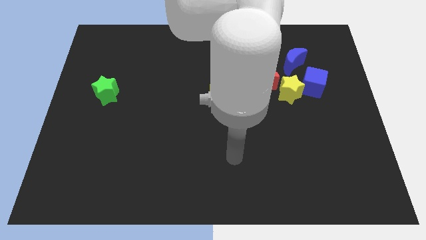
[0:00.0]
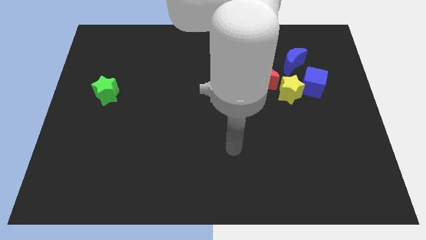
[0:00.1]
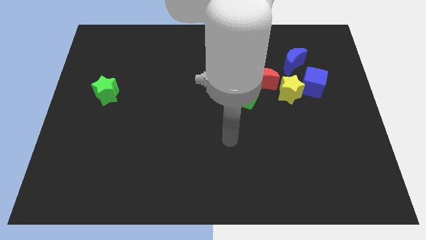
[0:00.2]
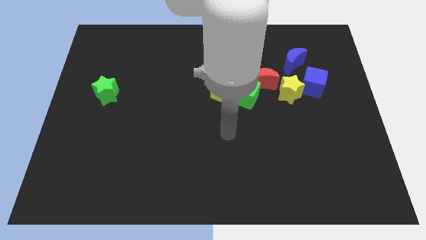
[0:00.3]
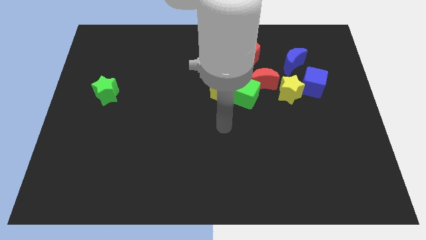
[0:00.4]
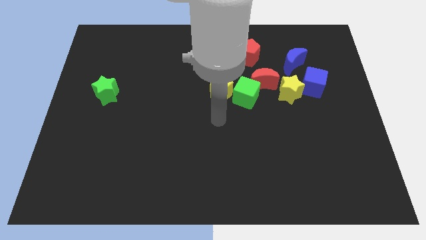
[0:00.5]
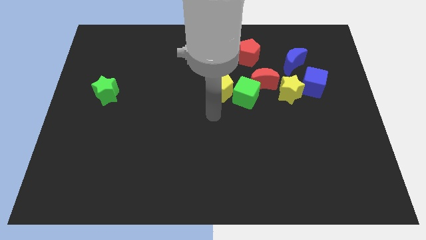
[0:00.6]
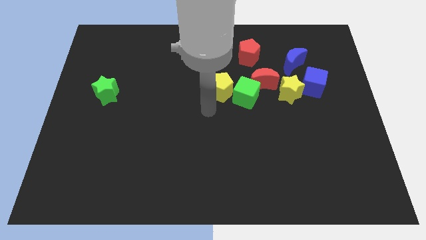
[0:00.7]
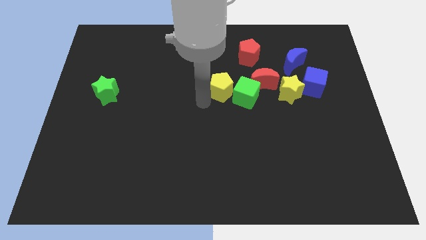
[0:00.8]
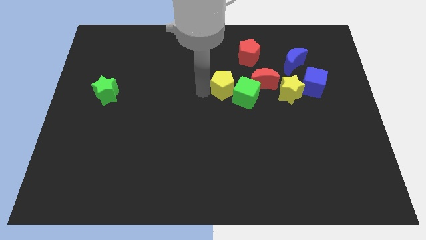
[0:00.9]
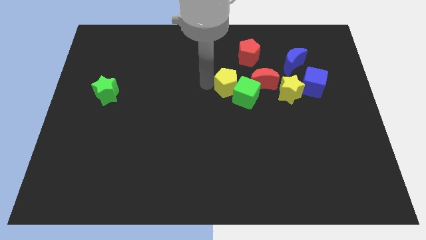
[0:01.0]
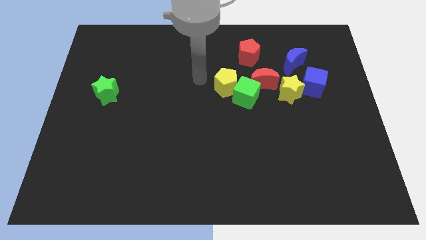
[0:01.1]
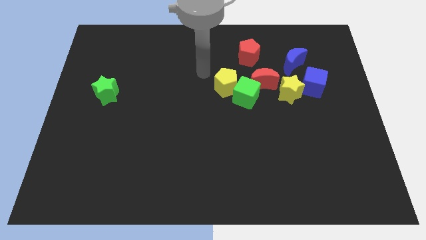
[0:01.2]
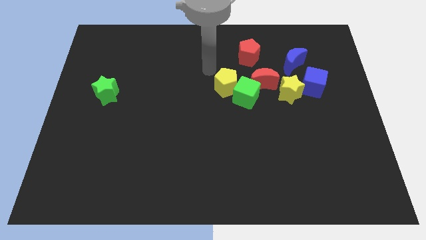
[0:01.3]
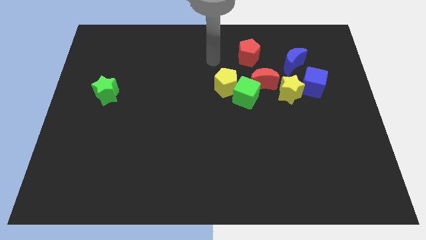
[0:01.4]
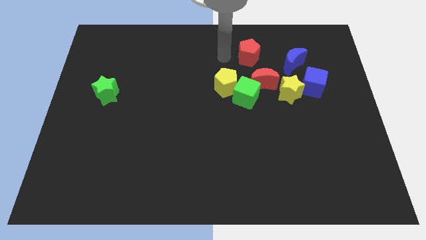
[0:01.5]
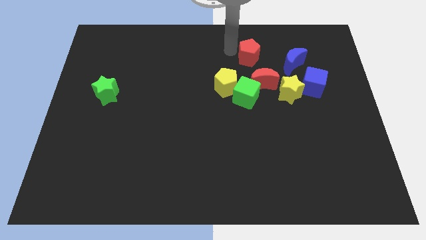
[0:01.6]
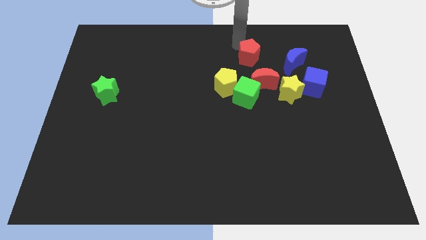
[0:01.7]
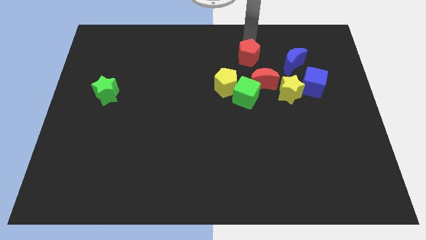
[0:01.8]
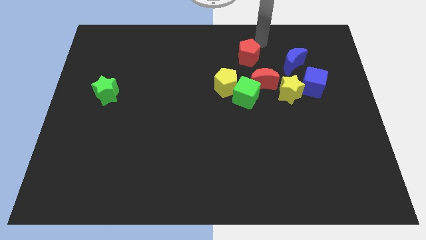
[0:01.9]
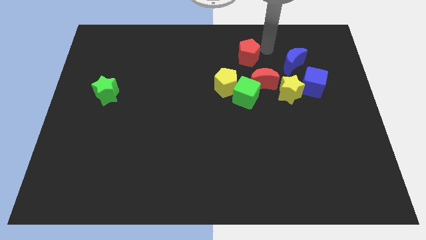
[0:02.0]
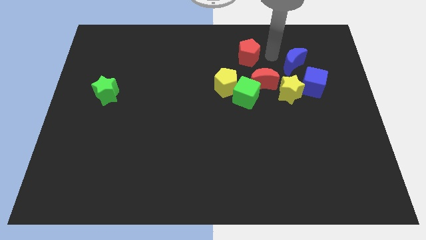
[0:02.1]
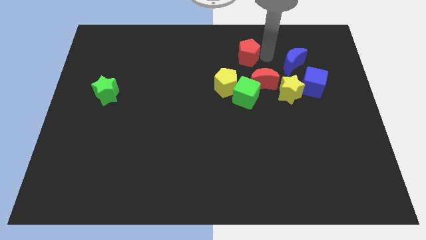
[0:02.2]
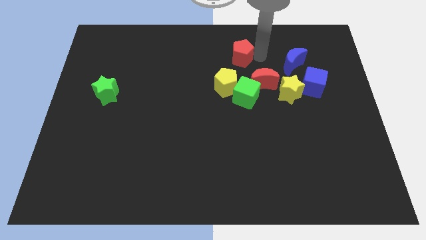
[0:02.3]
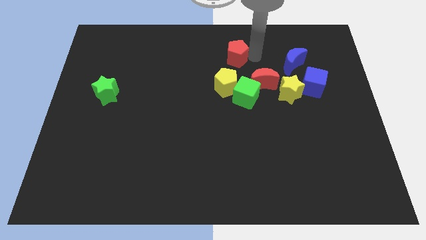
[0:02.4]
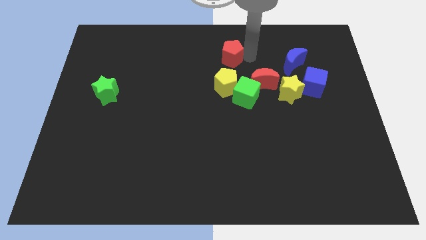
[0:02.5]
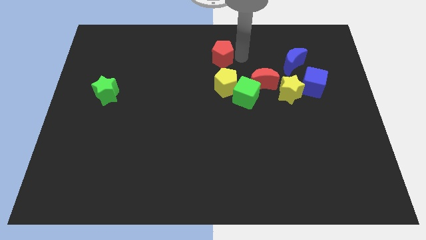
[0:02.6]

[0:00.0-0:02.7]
push the red pentagon a little left

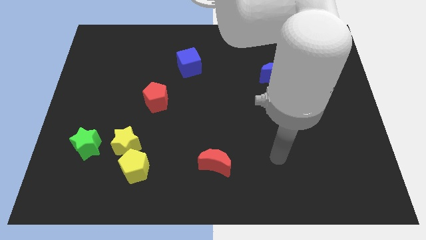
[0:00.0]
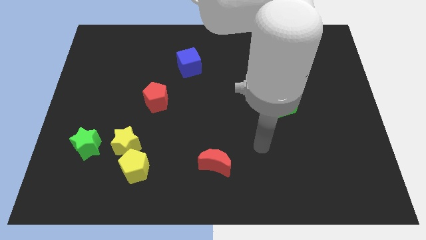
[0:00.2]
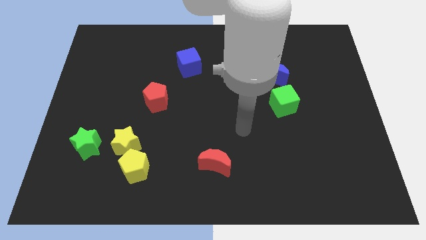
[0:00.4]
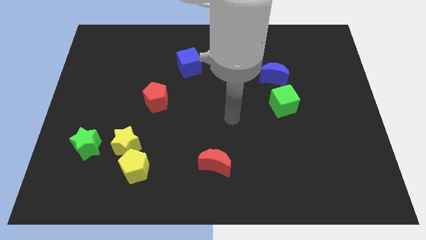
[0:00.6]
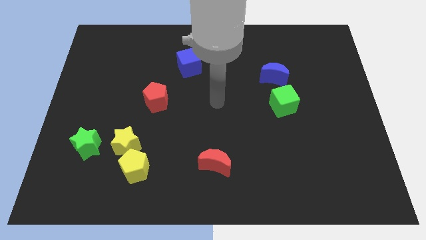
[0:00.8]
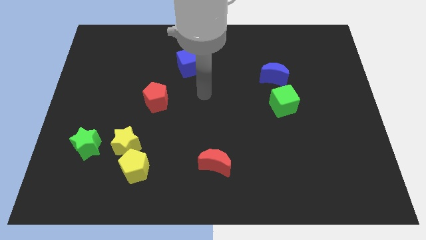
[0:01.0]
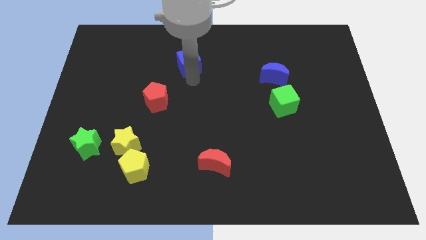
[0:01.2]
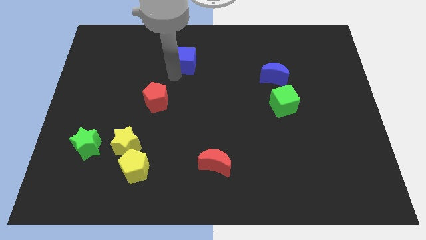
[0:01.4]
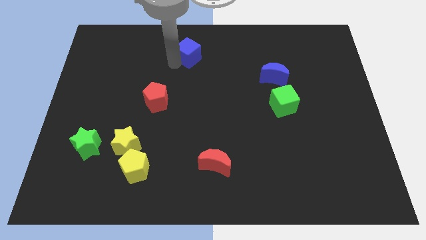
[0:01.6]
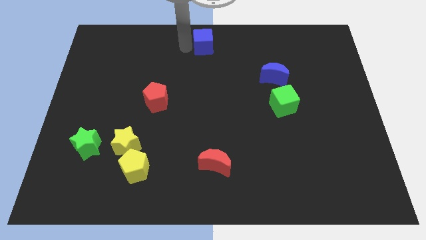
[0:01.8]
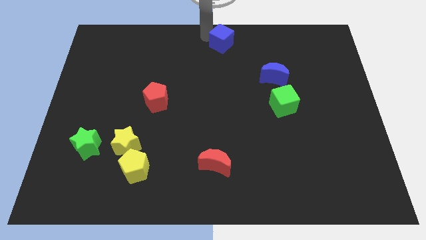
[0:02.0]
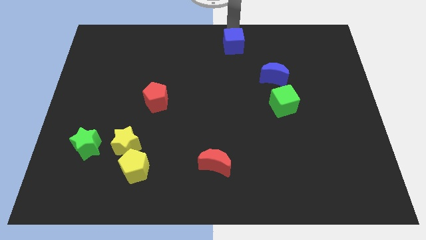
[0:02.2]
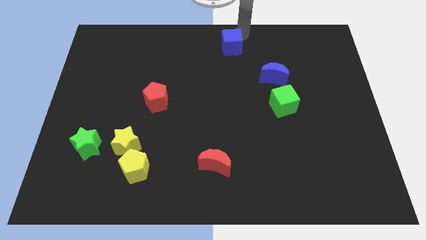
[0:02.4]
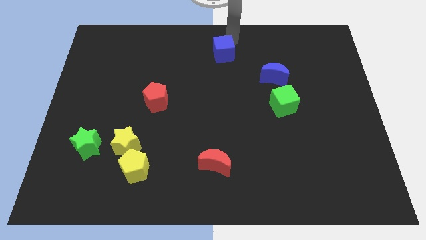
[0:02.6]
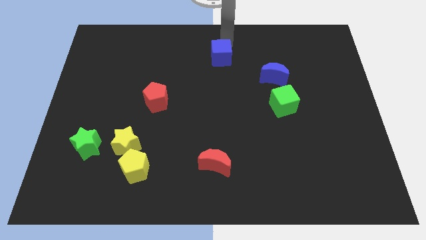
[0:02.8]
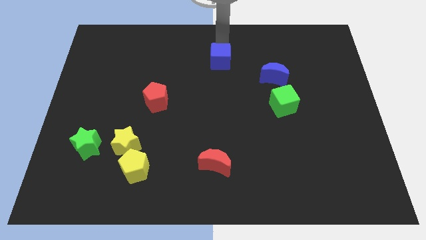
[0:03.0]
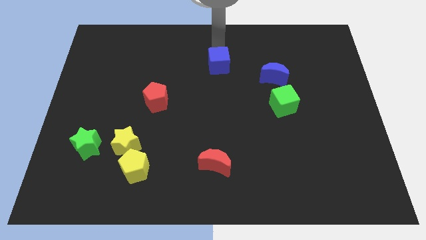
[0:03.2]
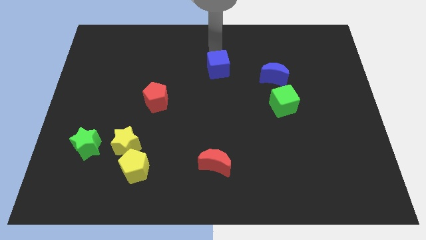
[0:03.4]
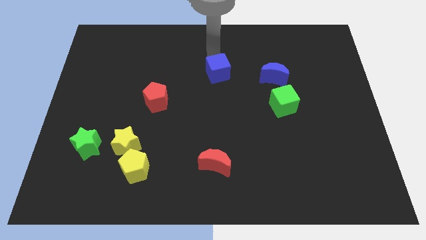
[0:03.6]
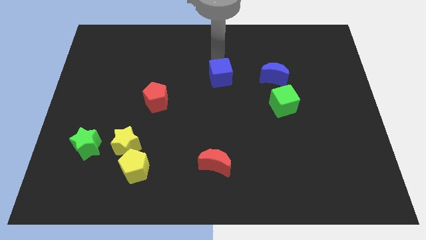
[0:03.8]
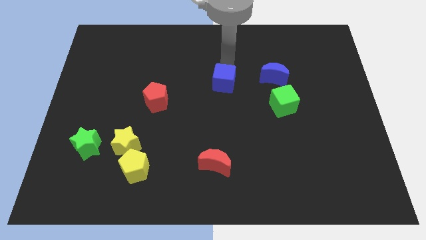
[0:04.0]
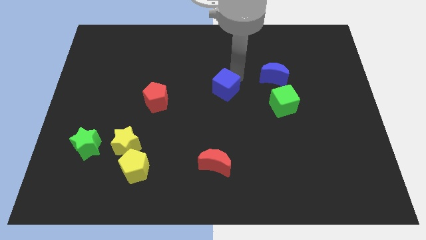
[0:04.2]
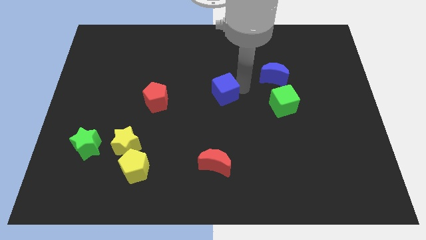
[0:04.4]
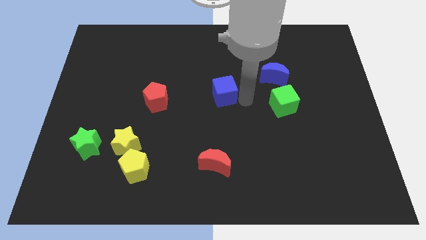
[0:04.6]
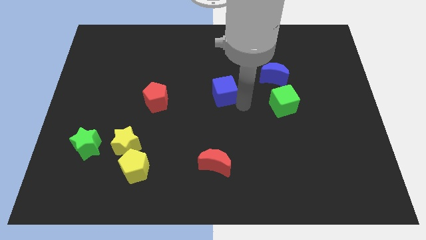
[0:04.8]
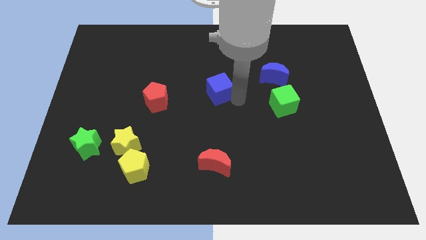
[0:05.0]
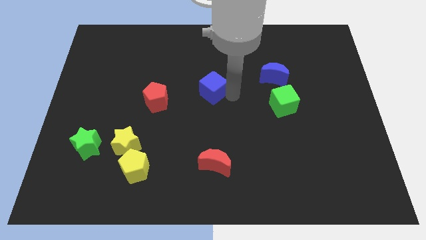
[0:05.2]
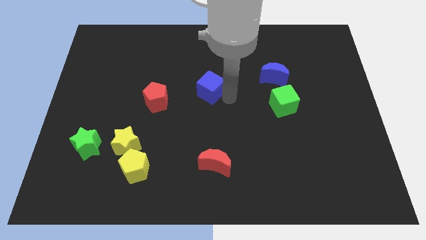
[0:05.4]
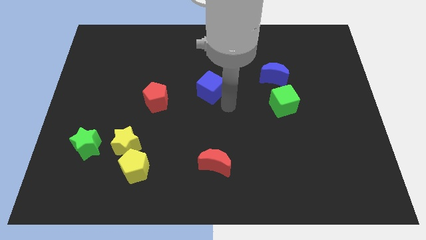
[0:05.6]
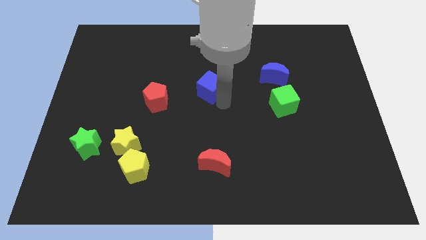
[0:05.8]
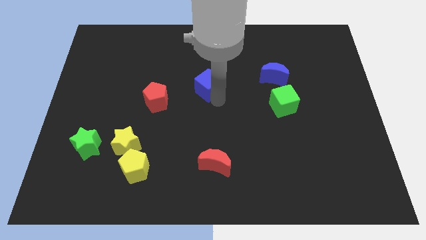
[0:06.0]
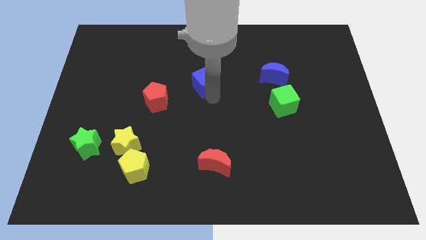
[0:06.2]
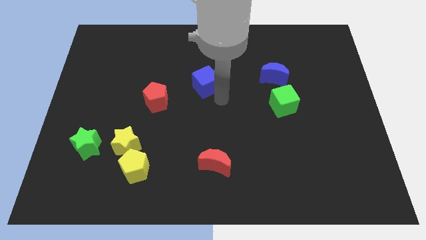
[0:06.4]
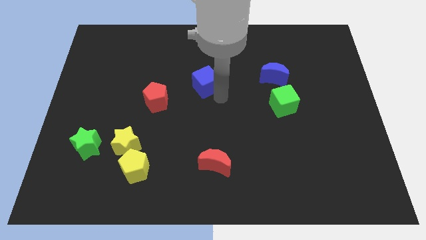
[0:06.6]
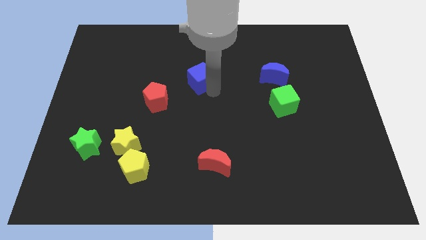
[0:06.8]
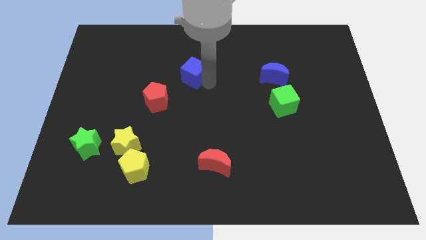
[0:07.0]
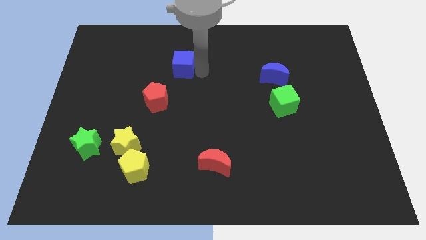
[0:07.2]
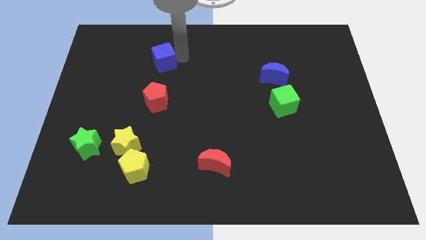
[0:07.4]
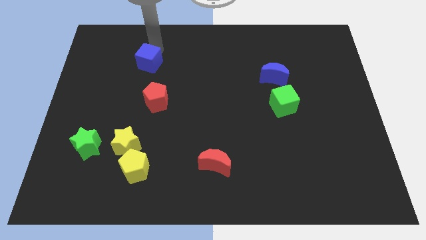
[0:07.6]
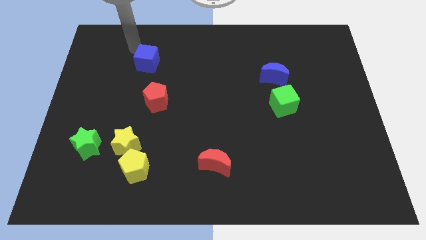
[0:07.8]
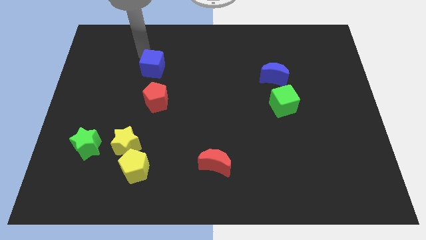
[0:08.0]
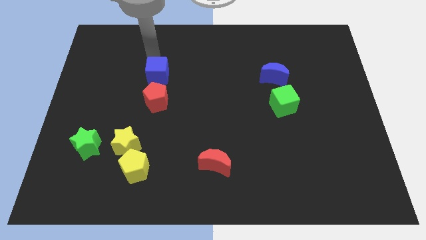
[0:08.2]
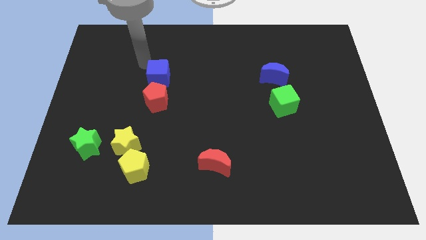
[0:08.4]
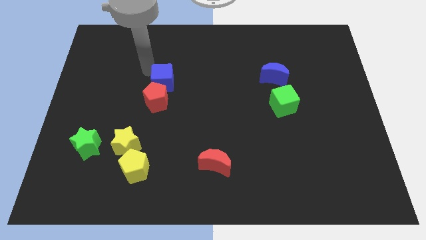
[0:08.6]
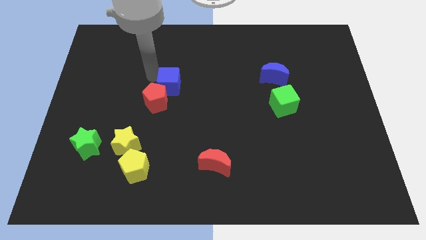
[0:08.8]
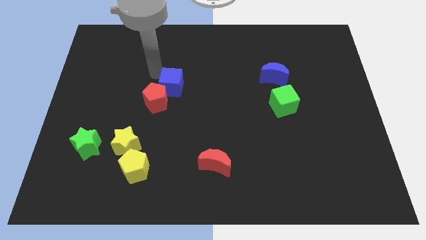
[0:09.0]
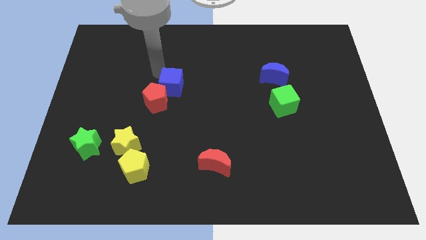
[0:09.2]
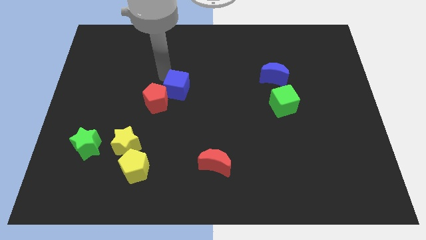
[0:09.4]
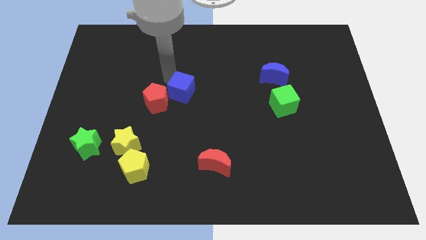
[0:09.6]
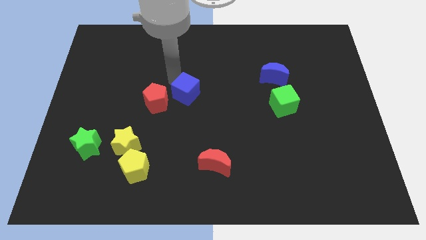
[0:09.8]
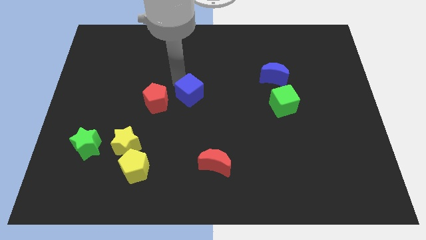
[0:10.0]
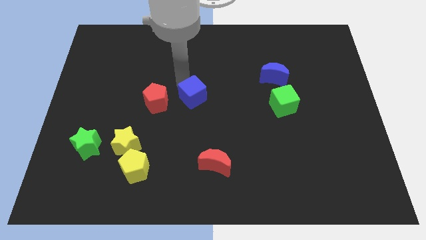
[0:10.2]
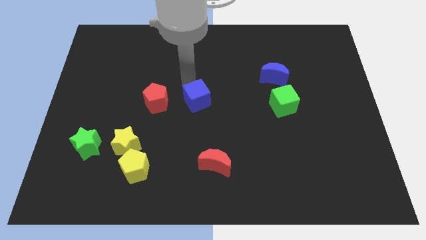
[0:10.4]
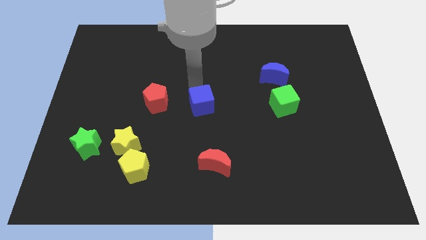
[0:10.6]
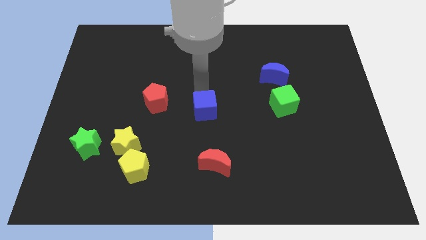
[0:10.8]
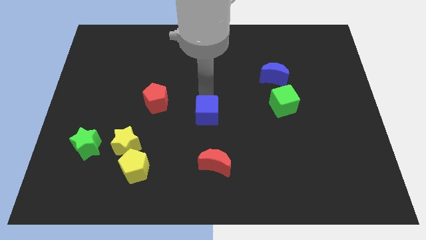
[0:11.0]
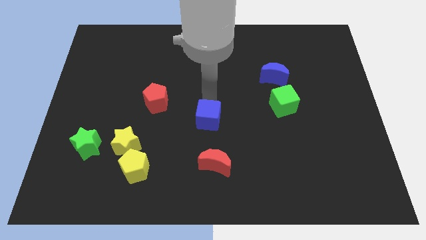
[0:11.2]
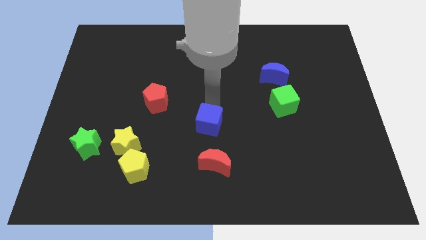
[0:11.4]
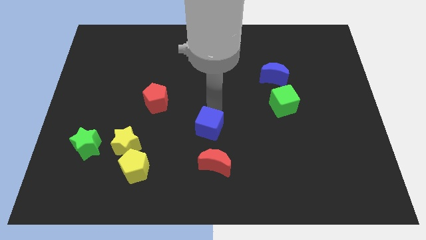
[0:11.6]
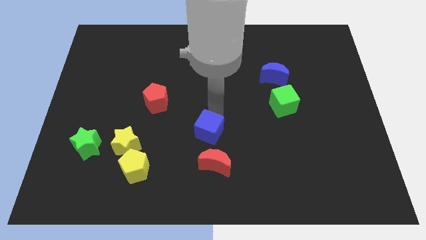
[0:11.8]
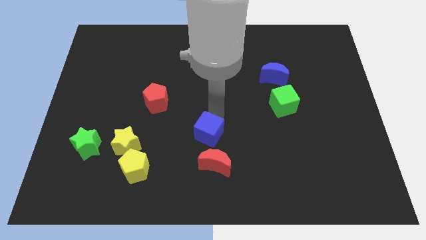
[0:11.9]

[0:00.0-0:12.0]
move the blue cube downwards
